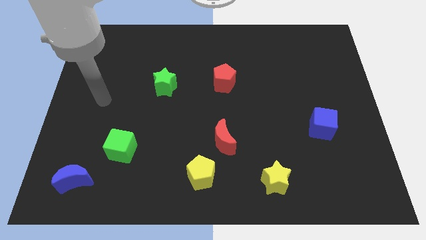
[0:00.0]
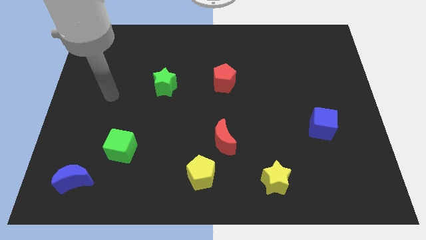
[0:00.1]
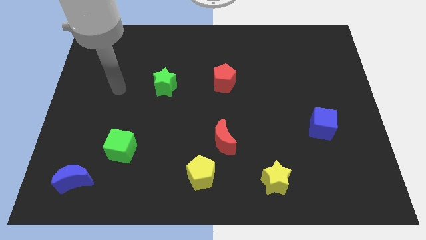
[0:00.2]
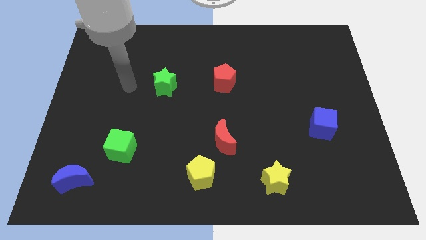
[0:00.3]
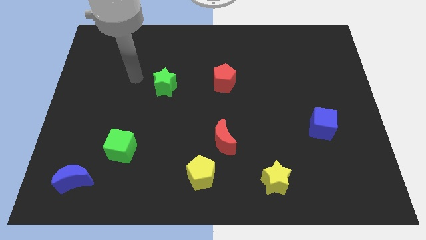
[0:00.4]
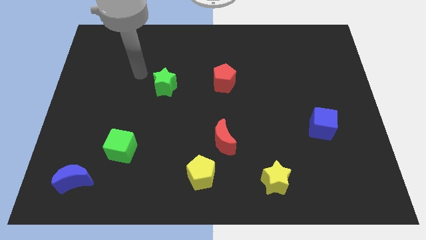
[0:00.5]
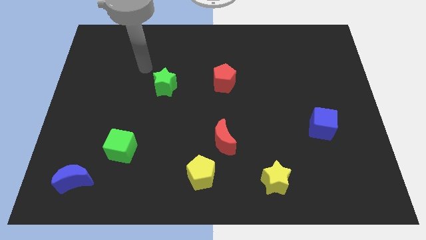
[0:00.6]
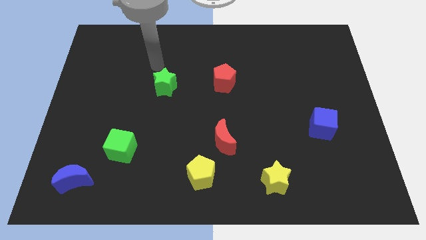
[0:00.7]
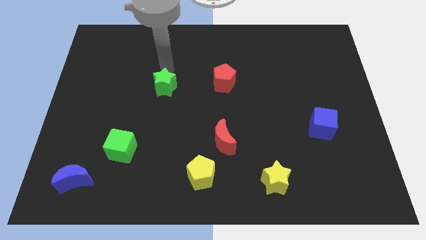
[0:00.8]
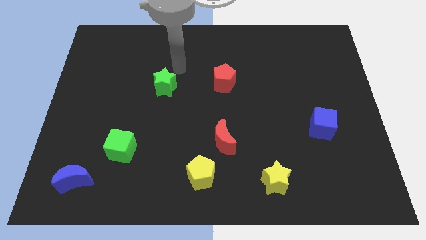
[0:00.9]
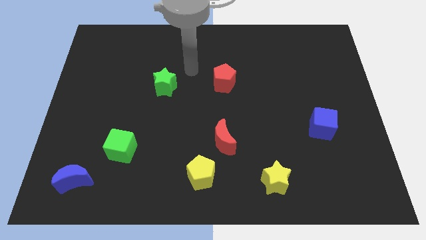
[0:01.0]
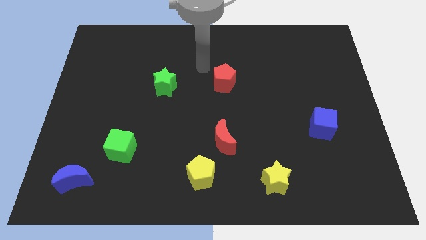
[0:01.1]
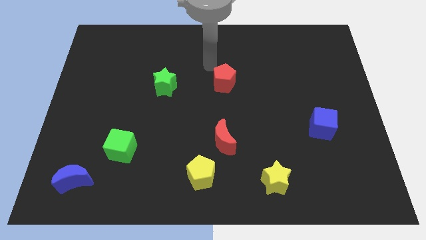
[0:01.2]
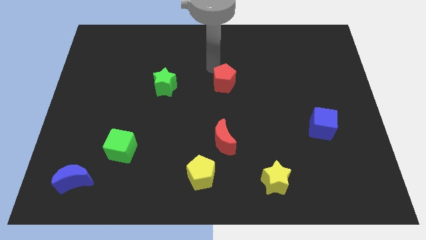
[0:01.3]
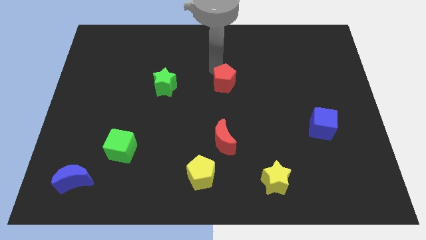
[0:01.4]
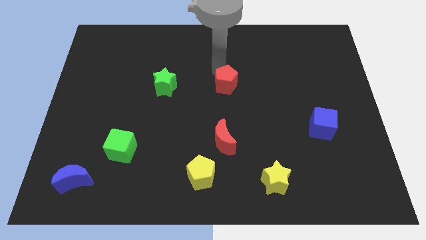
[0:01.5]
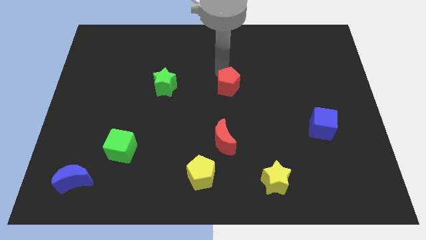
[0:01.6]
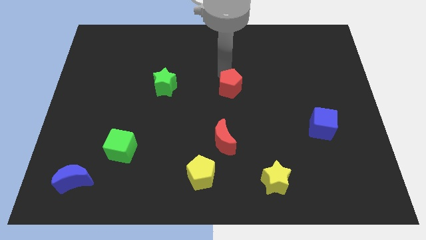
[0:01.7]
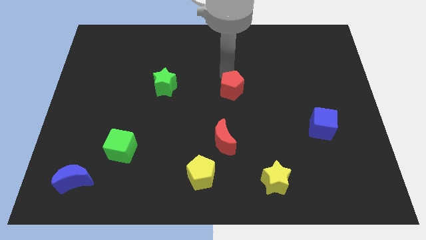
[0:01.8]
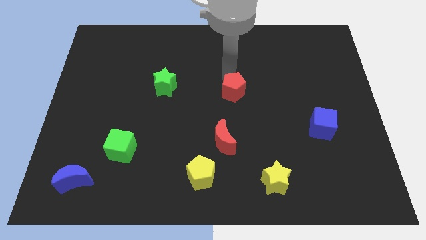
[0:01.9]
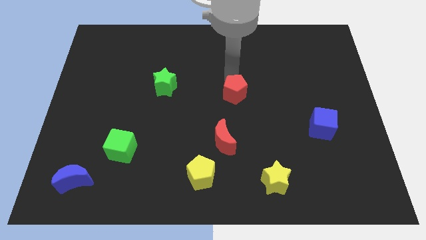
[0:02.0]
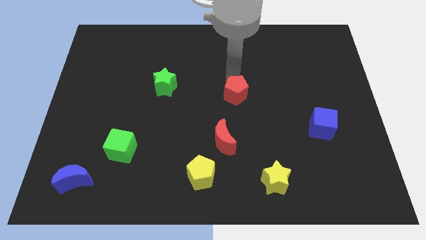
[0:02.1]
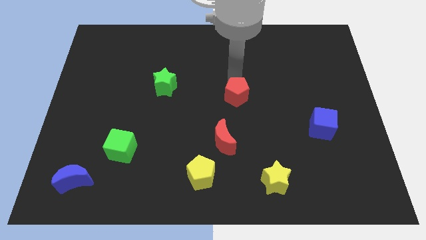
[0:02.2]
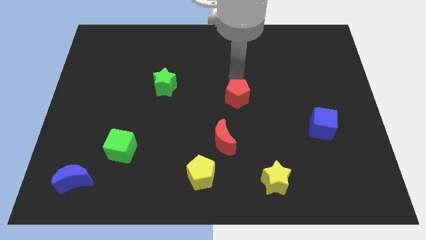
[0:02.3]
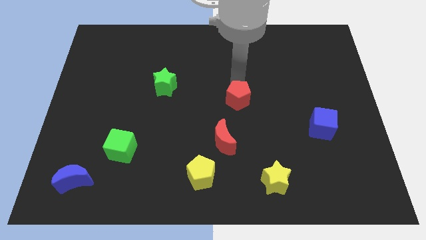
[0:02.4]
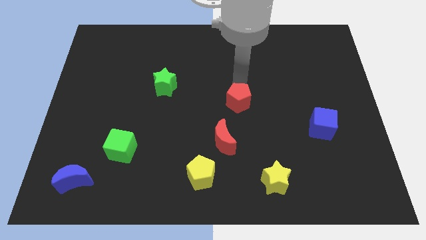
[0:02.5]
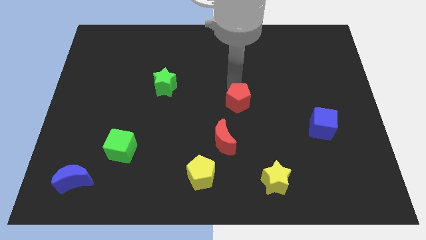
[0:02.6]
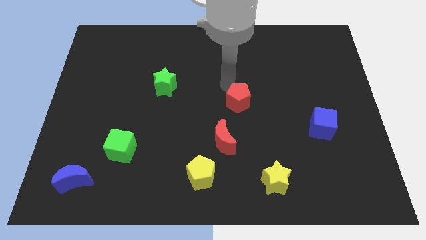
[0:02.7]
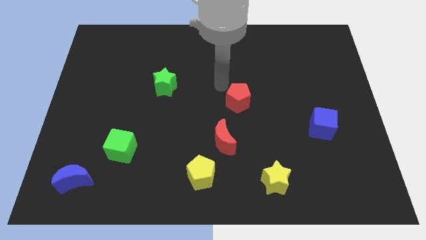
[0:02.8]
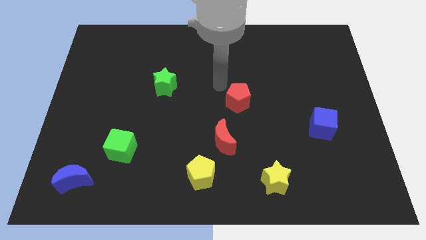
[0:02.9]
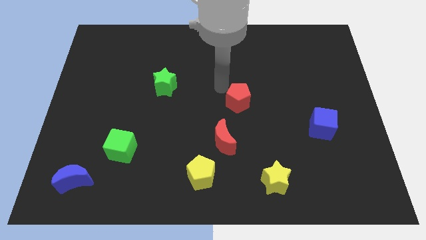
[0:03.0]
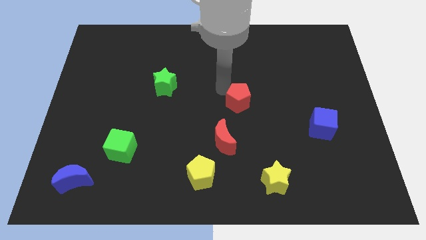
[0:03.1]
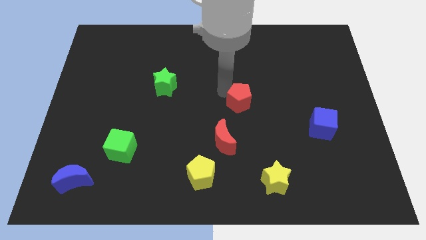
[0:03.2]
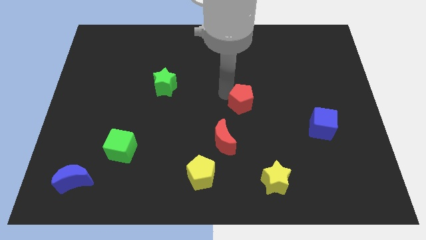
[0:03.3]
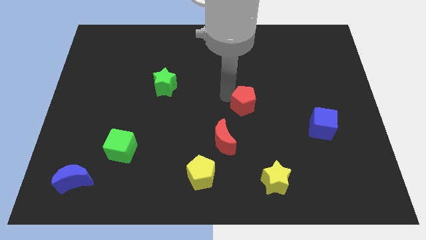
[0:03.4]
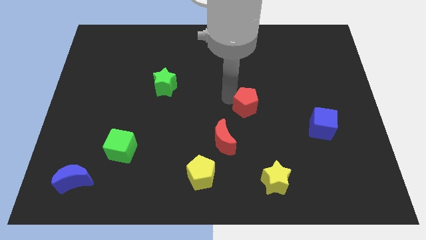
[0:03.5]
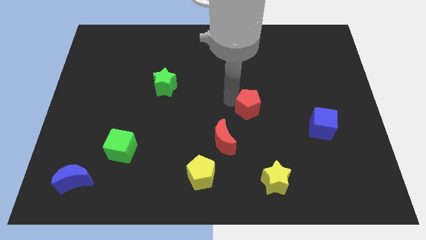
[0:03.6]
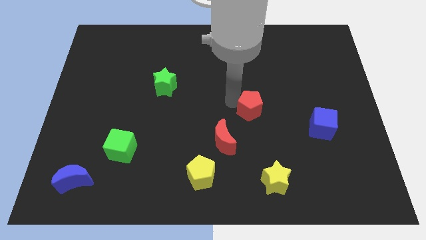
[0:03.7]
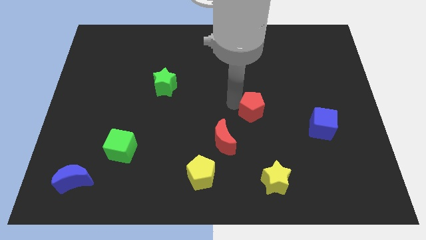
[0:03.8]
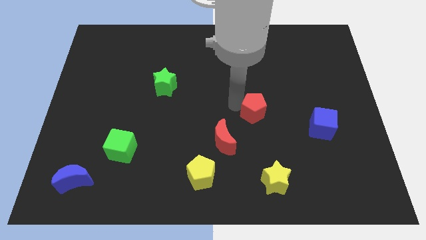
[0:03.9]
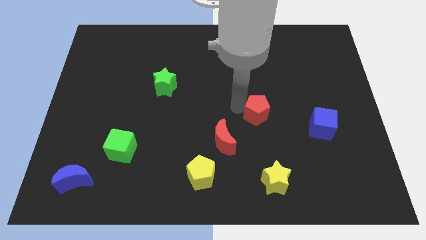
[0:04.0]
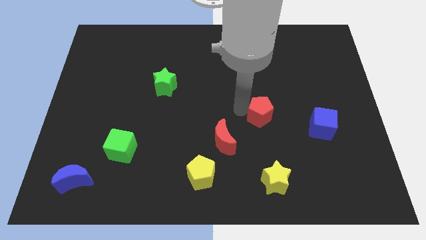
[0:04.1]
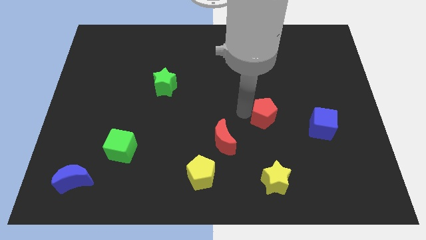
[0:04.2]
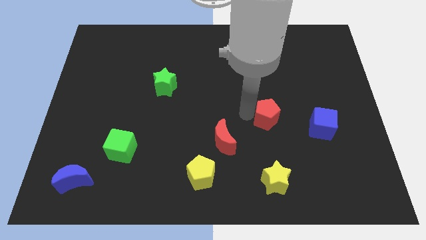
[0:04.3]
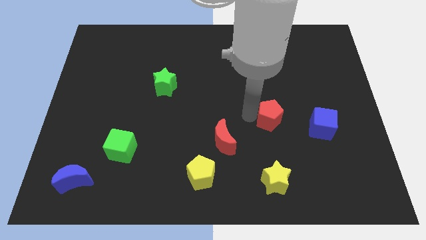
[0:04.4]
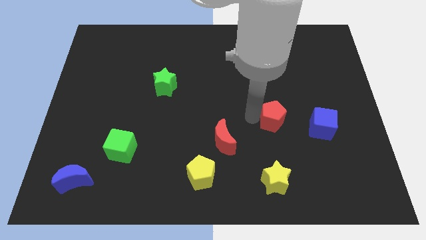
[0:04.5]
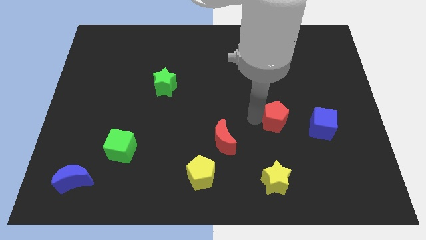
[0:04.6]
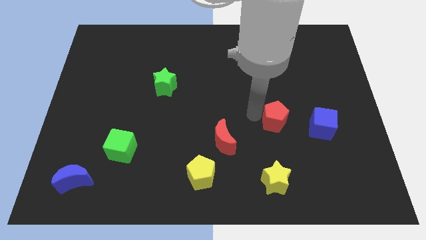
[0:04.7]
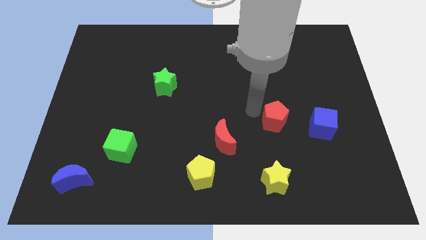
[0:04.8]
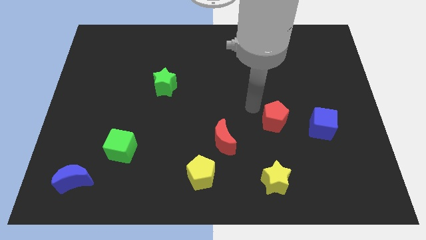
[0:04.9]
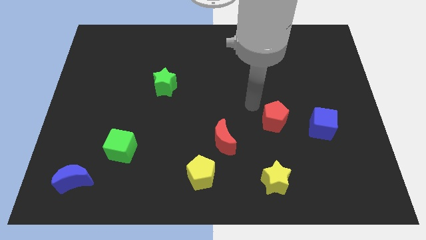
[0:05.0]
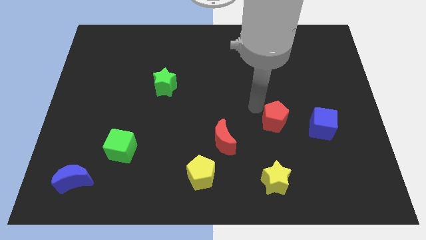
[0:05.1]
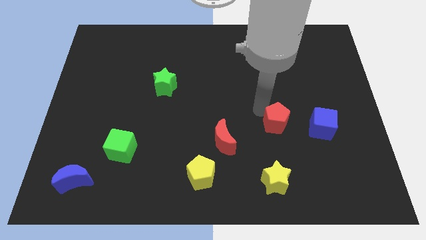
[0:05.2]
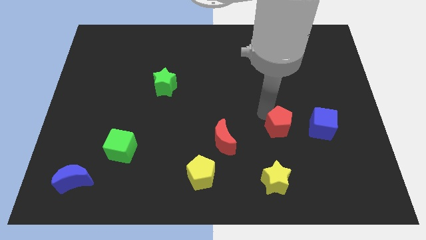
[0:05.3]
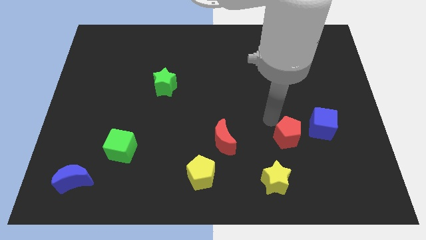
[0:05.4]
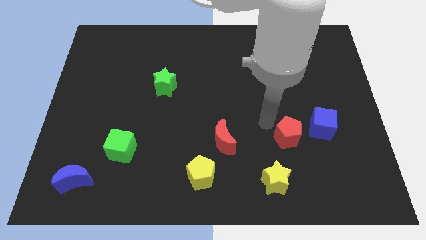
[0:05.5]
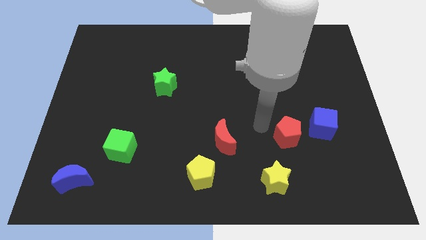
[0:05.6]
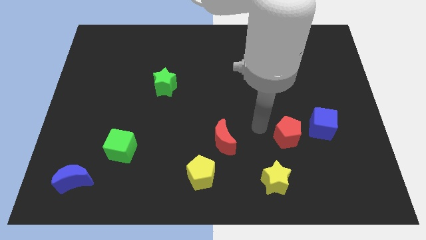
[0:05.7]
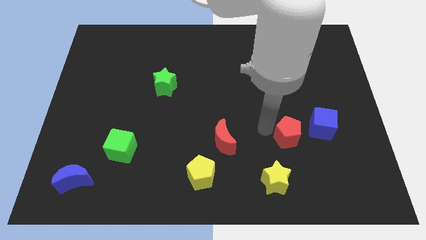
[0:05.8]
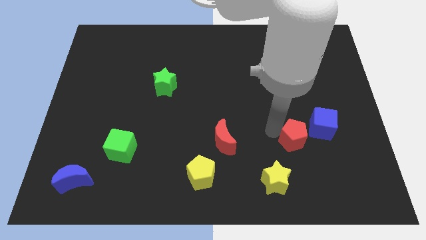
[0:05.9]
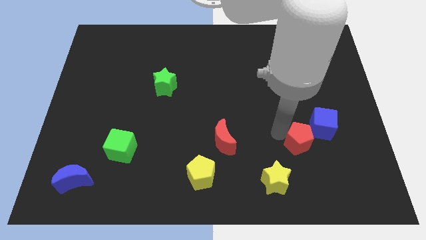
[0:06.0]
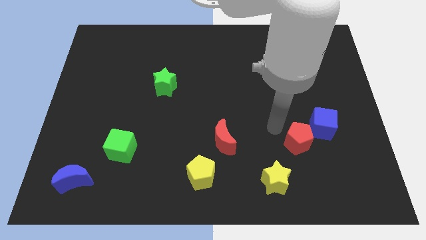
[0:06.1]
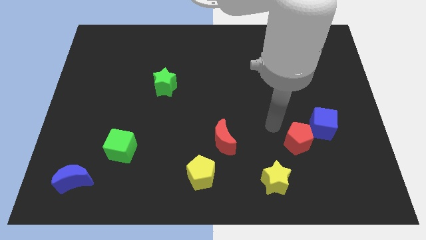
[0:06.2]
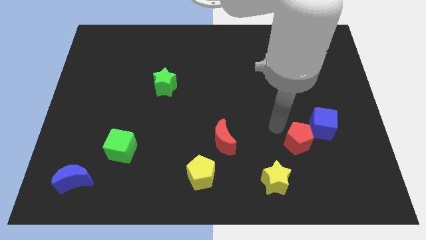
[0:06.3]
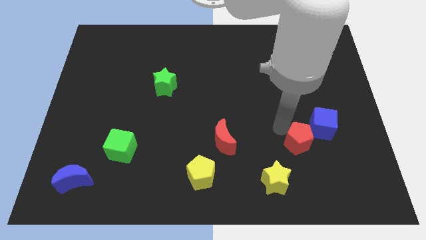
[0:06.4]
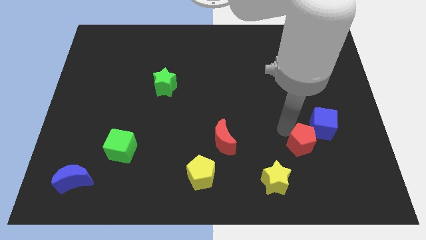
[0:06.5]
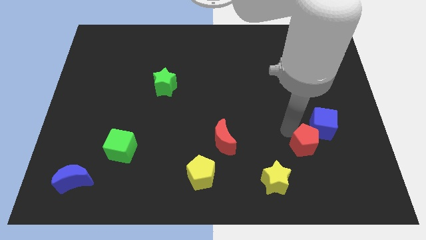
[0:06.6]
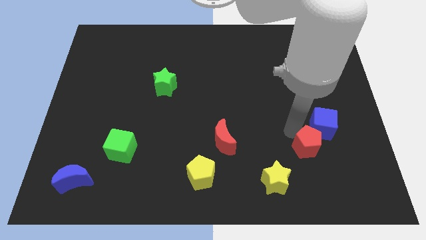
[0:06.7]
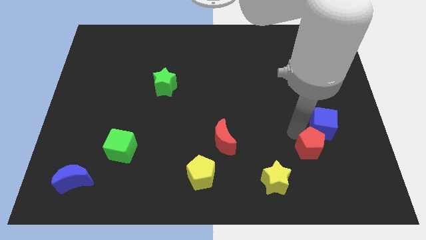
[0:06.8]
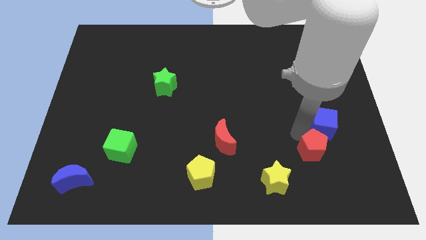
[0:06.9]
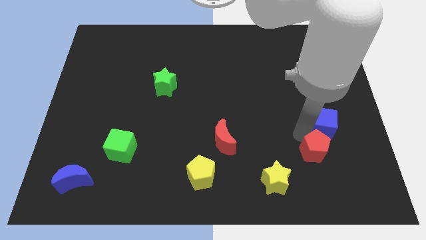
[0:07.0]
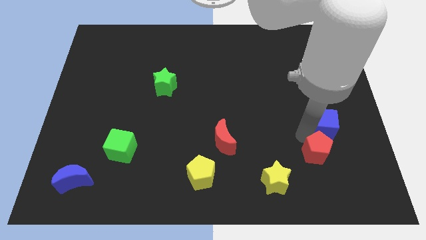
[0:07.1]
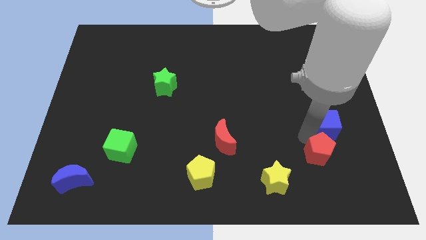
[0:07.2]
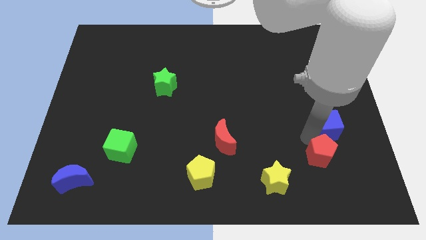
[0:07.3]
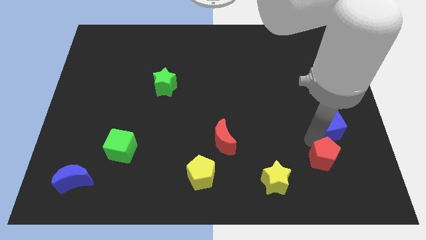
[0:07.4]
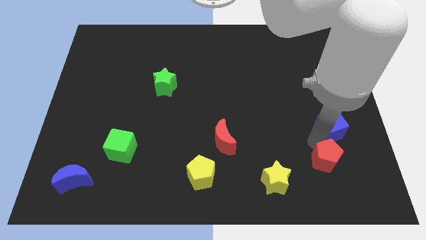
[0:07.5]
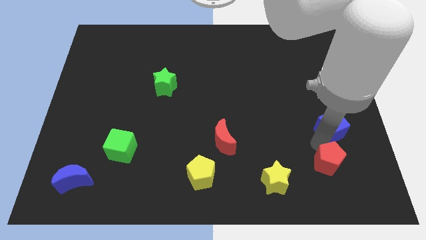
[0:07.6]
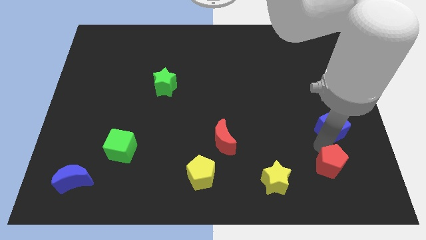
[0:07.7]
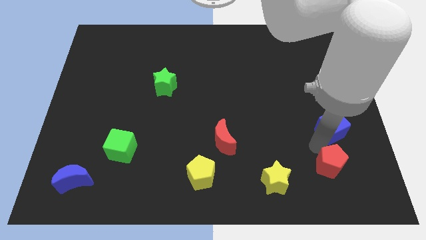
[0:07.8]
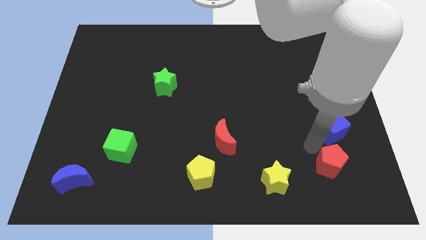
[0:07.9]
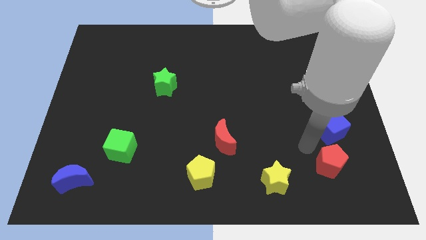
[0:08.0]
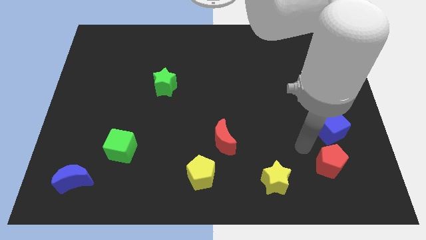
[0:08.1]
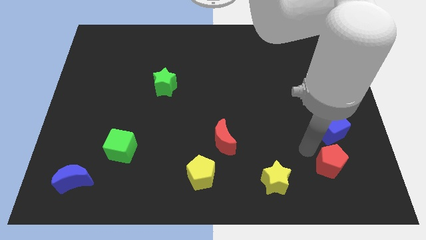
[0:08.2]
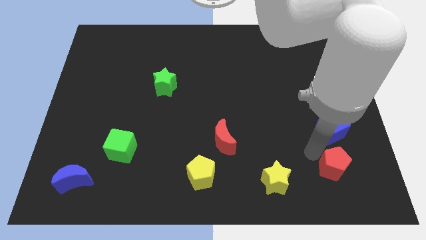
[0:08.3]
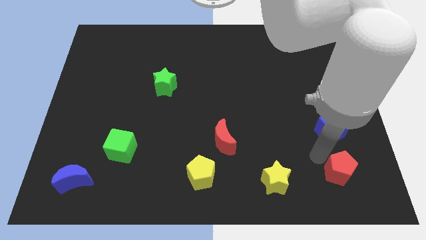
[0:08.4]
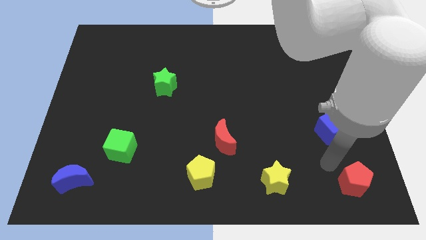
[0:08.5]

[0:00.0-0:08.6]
push the red pentagon to the bottom right corner
